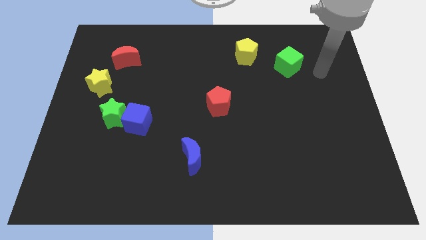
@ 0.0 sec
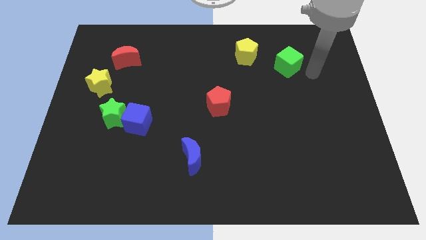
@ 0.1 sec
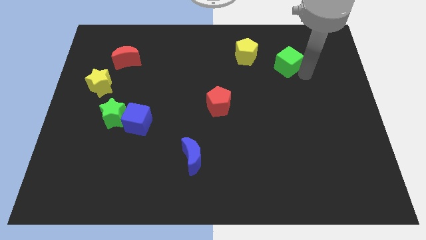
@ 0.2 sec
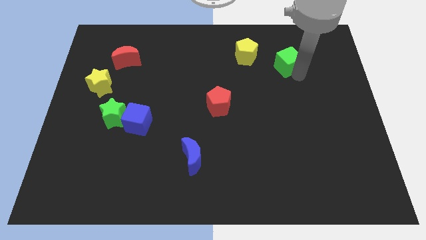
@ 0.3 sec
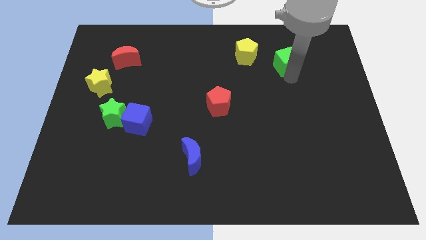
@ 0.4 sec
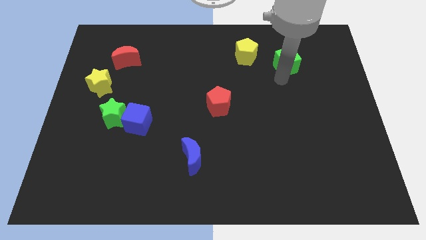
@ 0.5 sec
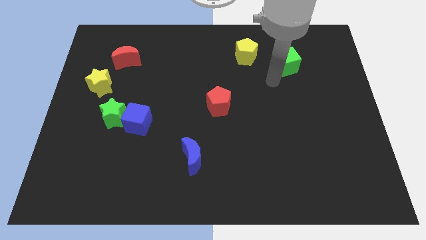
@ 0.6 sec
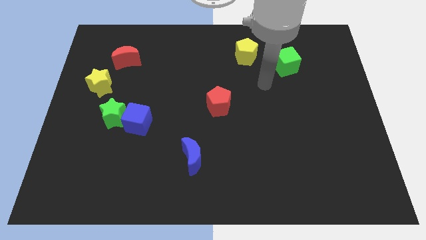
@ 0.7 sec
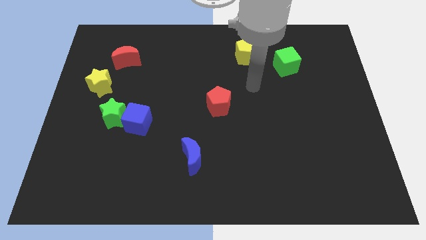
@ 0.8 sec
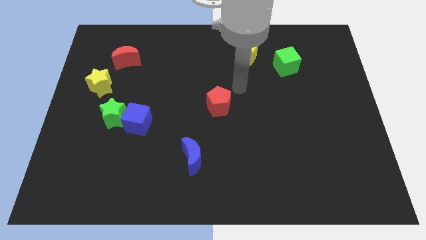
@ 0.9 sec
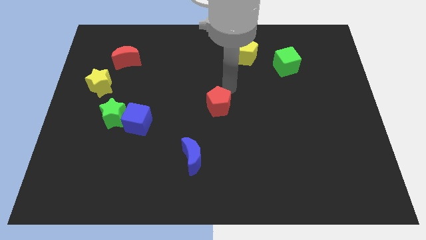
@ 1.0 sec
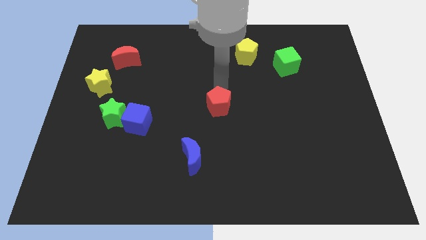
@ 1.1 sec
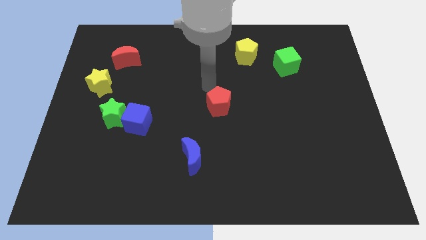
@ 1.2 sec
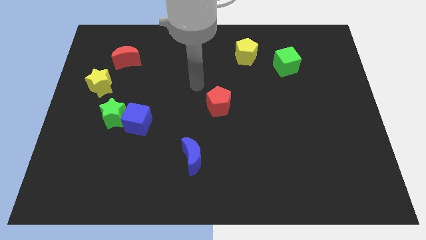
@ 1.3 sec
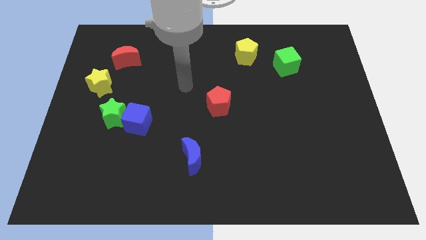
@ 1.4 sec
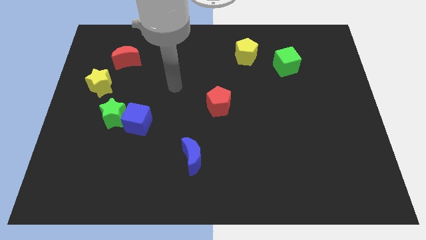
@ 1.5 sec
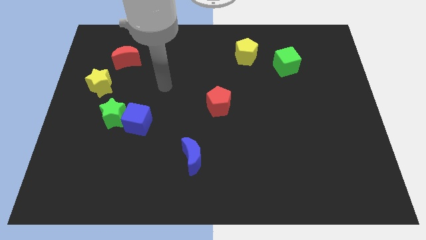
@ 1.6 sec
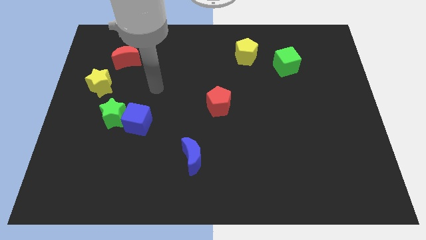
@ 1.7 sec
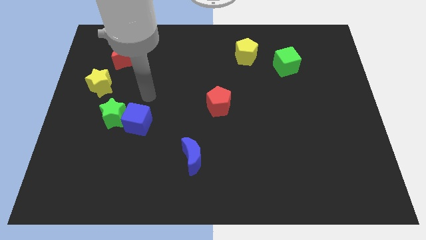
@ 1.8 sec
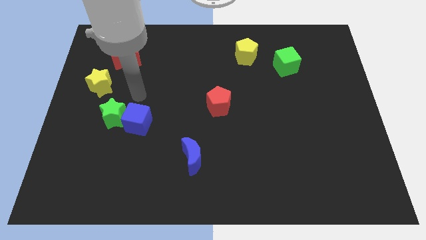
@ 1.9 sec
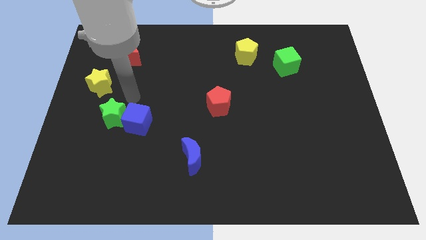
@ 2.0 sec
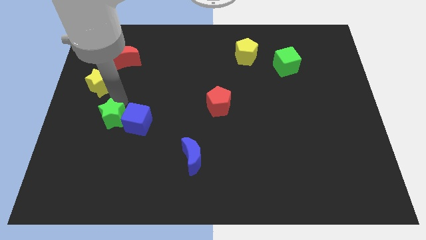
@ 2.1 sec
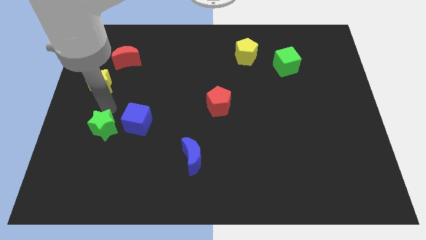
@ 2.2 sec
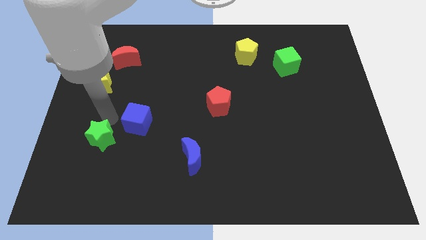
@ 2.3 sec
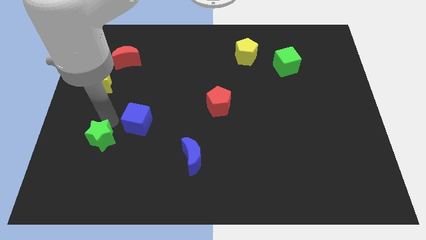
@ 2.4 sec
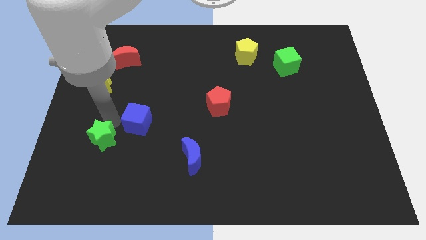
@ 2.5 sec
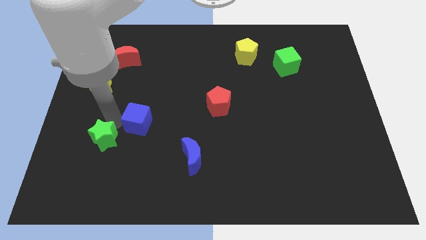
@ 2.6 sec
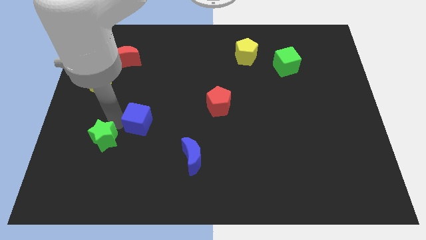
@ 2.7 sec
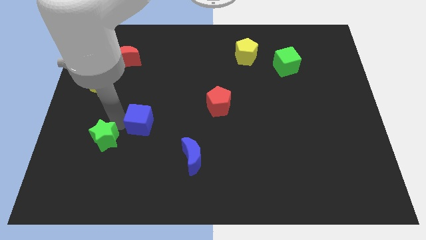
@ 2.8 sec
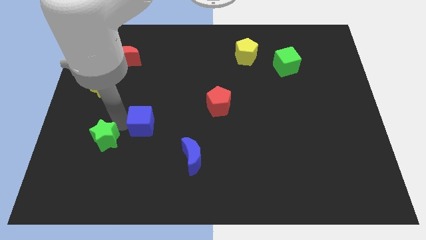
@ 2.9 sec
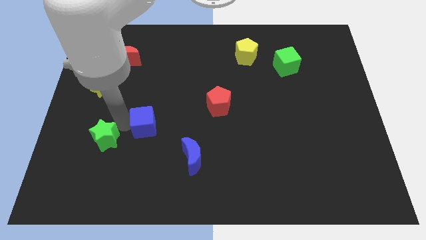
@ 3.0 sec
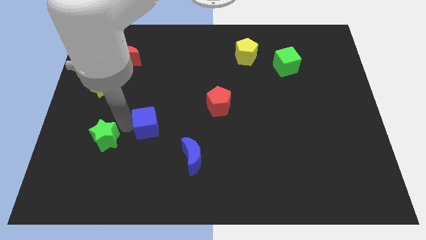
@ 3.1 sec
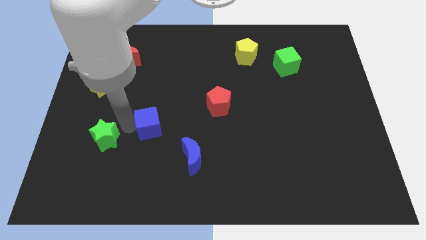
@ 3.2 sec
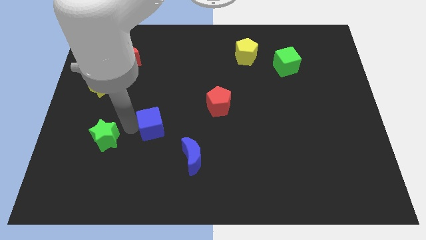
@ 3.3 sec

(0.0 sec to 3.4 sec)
pull the blue cube apart from the green star

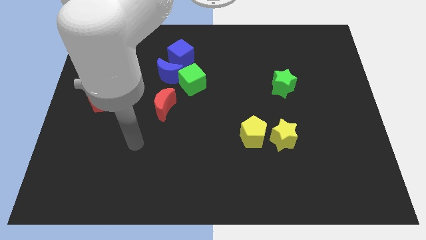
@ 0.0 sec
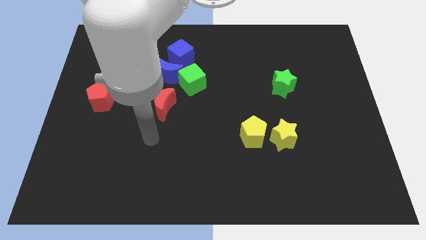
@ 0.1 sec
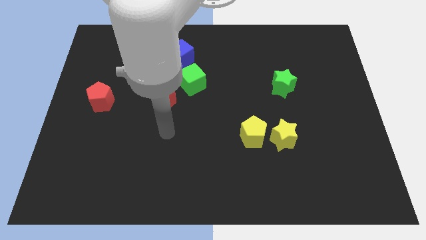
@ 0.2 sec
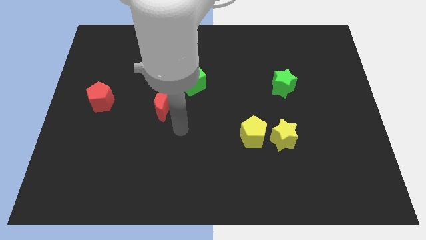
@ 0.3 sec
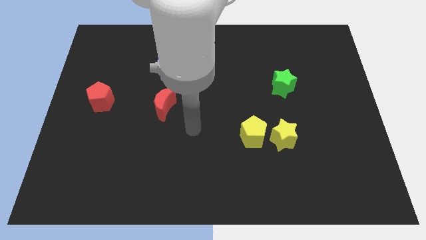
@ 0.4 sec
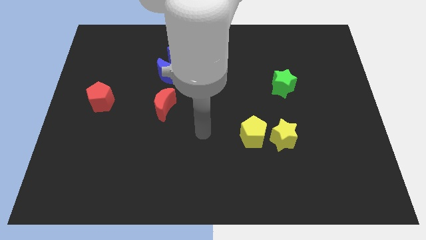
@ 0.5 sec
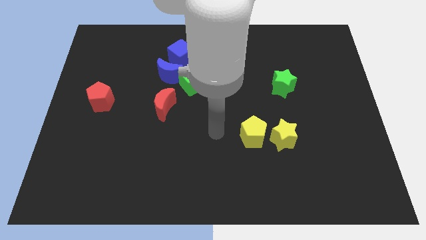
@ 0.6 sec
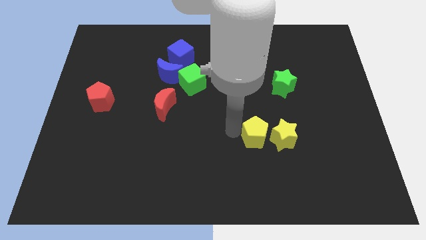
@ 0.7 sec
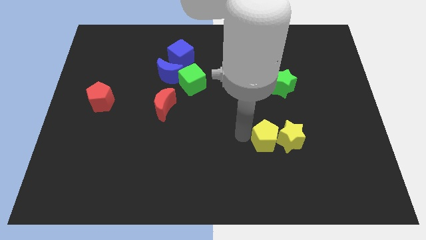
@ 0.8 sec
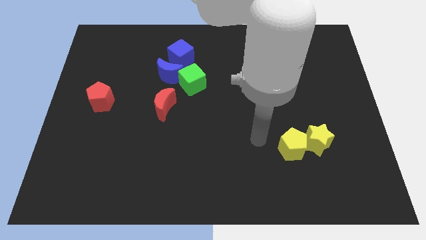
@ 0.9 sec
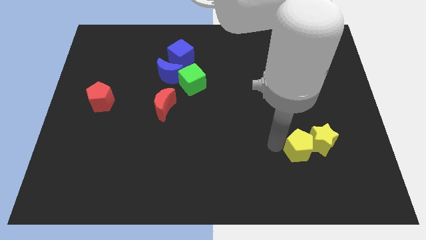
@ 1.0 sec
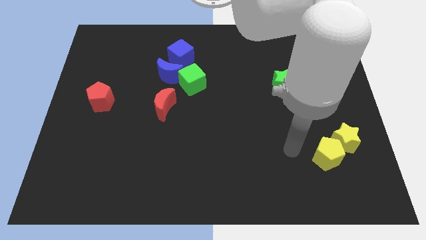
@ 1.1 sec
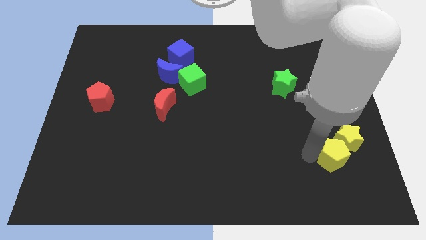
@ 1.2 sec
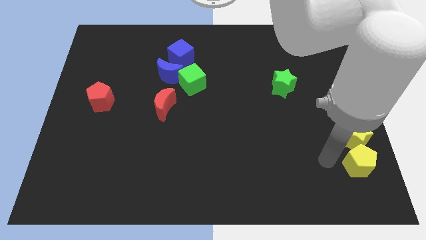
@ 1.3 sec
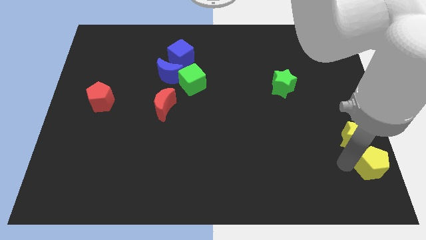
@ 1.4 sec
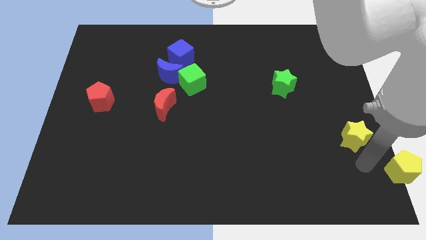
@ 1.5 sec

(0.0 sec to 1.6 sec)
pull the yellow star apart from the yellow pentagon

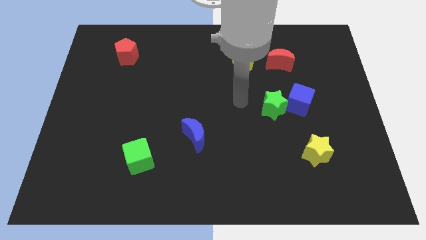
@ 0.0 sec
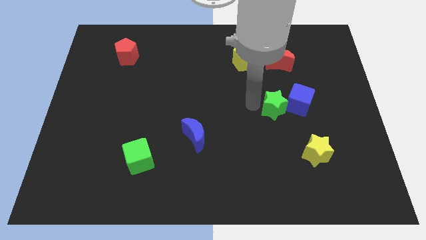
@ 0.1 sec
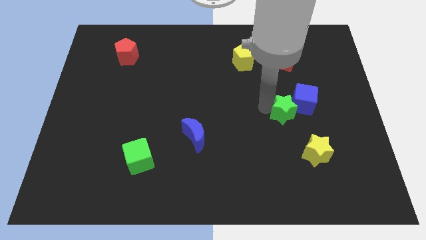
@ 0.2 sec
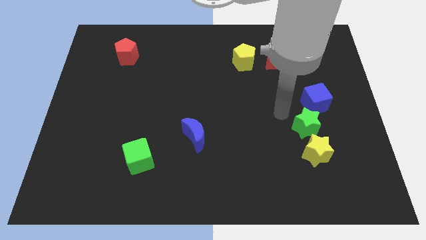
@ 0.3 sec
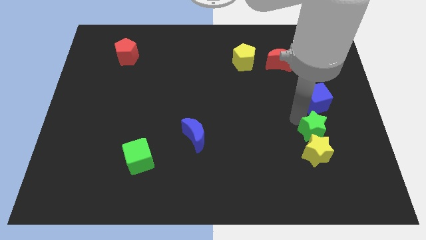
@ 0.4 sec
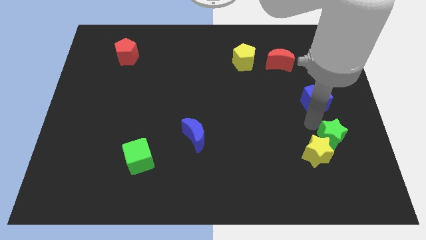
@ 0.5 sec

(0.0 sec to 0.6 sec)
move the blue cube away from the green star

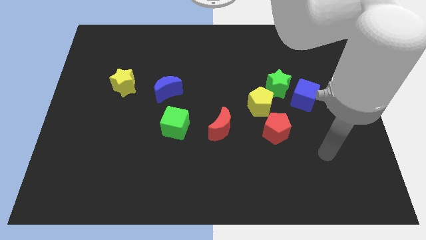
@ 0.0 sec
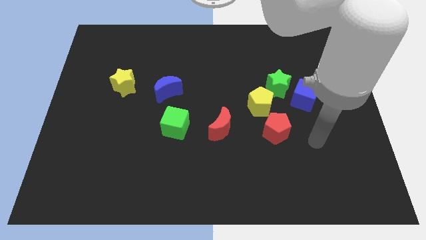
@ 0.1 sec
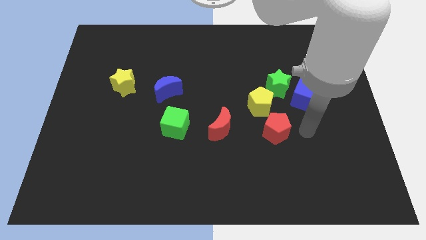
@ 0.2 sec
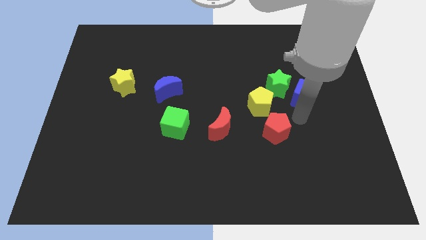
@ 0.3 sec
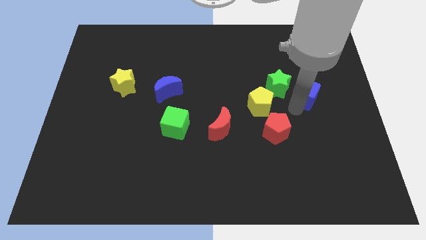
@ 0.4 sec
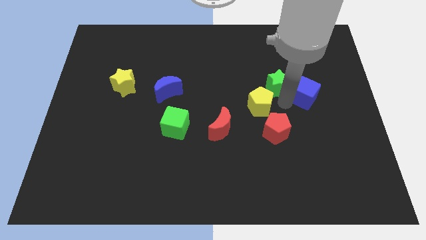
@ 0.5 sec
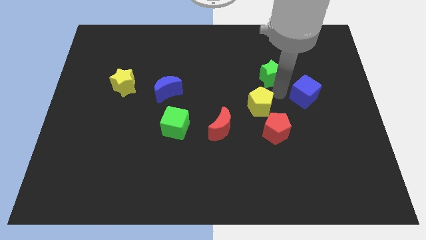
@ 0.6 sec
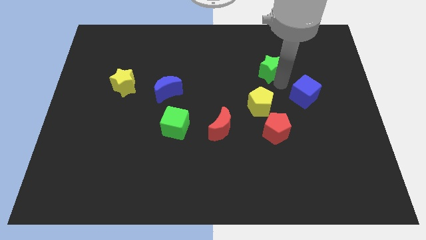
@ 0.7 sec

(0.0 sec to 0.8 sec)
separate the blue cube from the green star

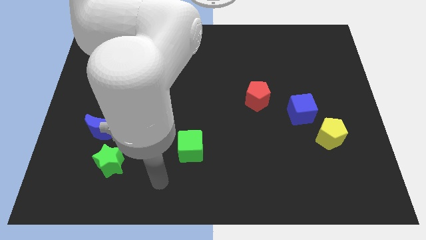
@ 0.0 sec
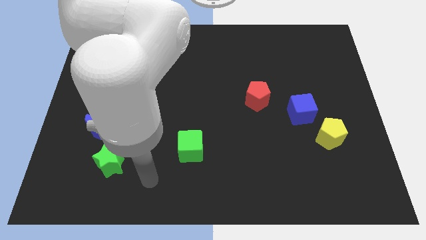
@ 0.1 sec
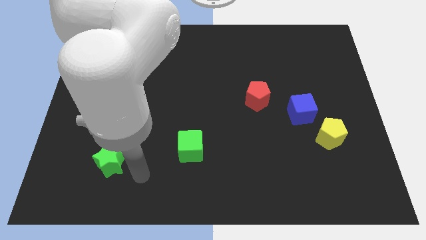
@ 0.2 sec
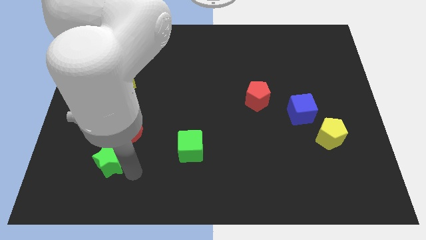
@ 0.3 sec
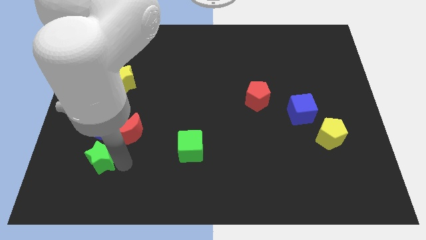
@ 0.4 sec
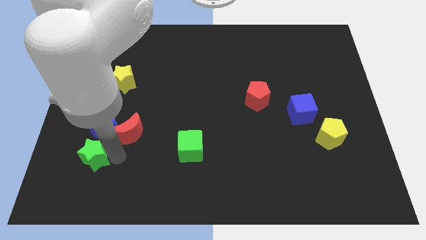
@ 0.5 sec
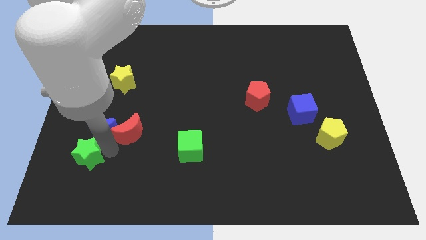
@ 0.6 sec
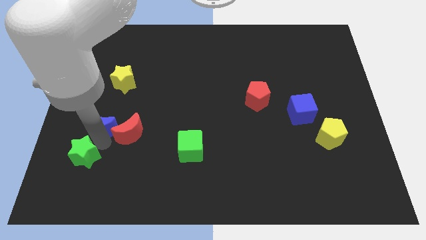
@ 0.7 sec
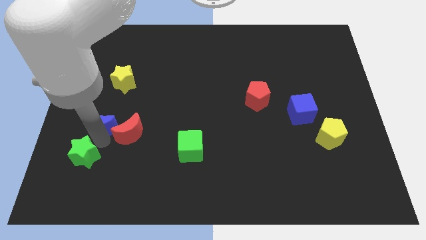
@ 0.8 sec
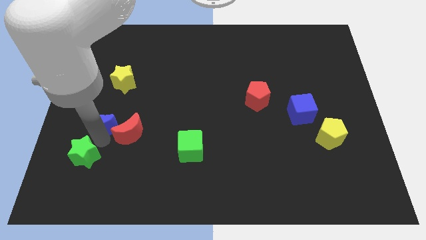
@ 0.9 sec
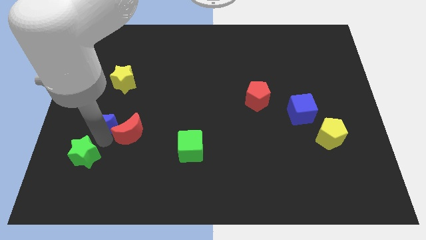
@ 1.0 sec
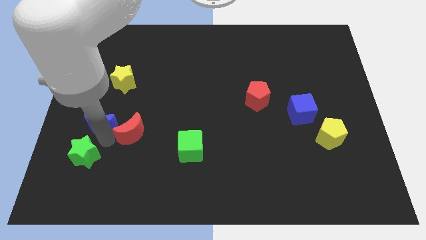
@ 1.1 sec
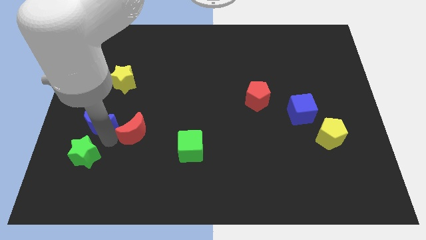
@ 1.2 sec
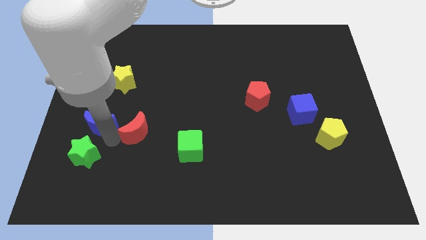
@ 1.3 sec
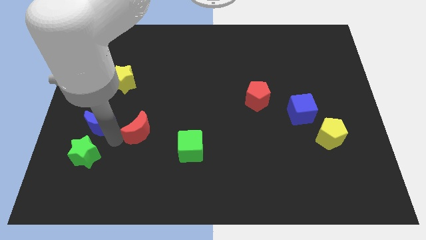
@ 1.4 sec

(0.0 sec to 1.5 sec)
move the red moon away from the blue moon and green star

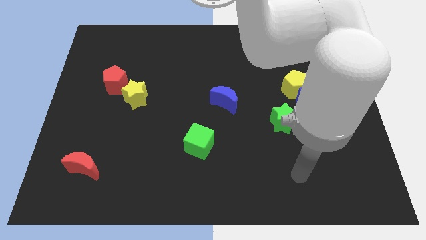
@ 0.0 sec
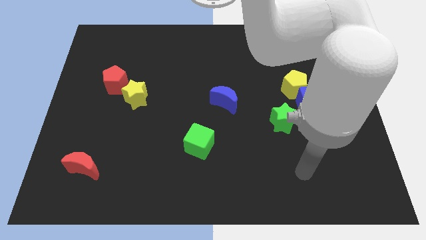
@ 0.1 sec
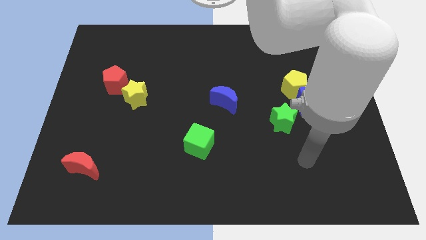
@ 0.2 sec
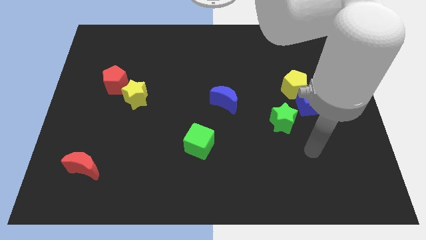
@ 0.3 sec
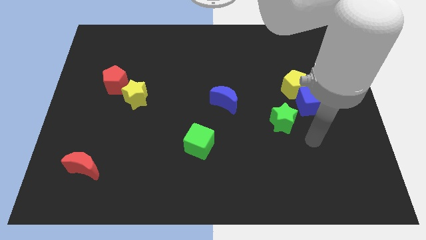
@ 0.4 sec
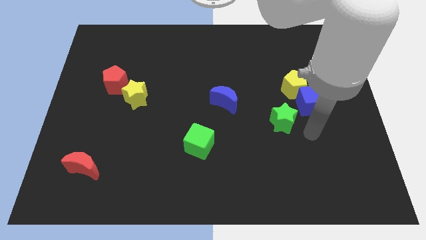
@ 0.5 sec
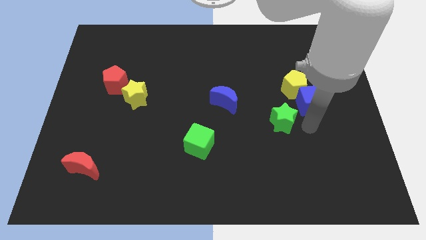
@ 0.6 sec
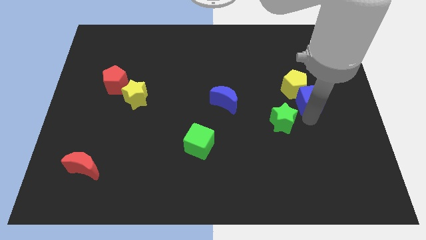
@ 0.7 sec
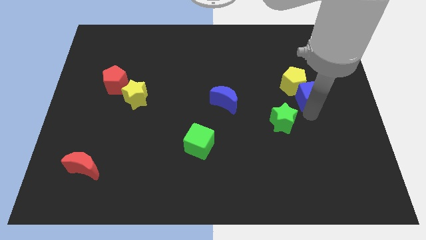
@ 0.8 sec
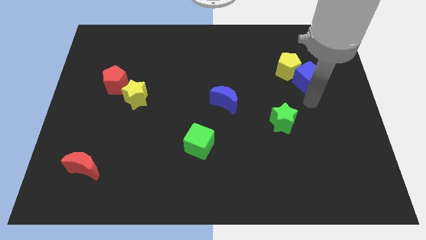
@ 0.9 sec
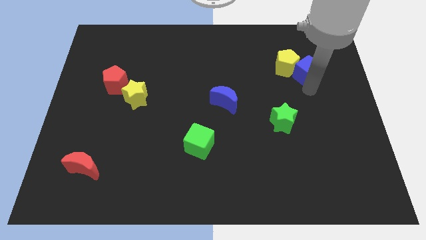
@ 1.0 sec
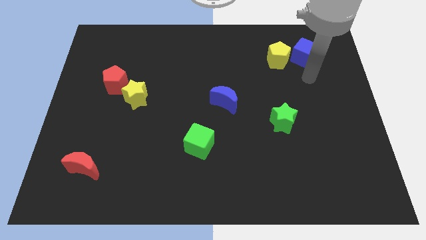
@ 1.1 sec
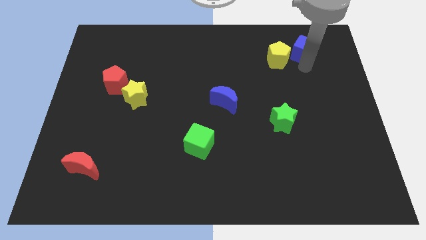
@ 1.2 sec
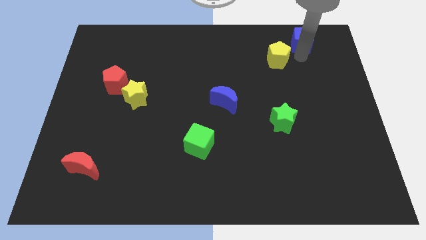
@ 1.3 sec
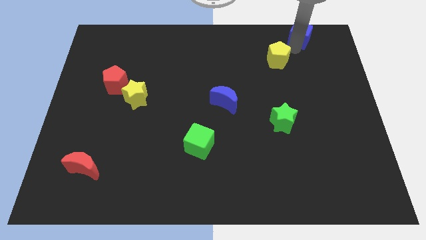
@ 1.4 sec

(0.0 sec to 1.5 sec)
pull the yellow pentagon apart from the blue cube
